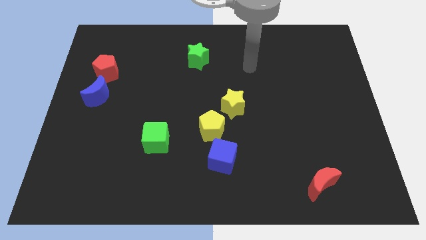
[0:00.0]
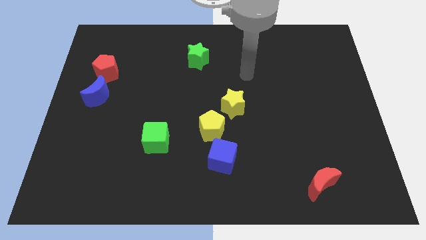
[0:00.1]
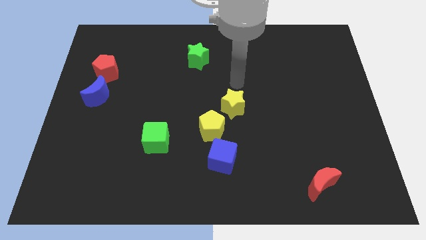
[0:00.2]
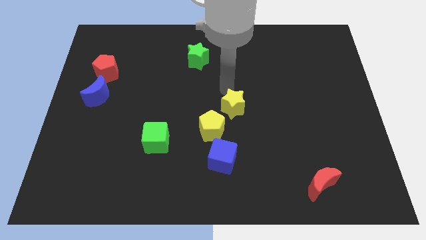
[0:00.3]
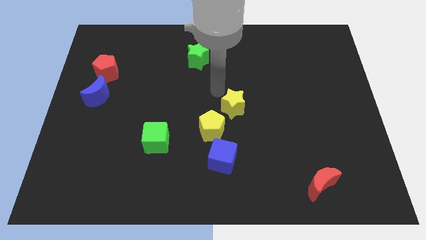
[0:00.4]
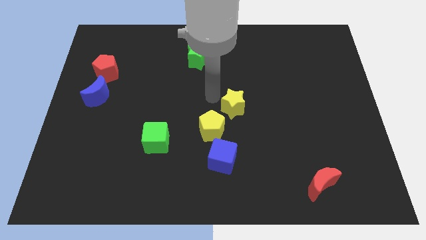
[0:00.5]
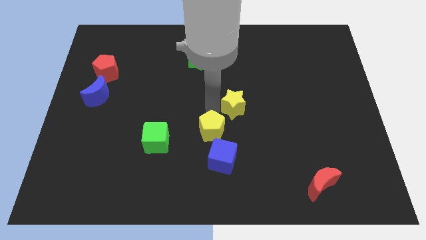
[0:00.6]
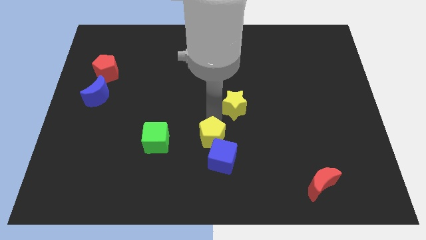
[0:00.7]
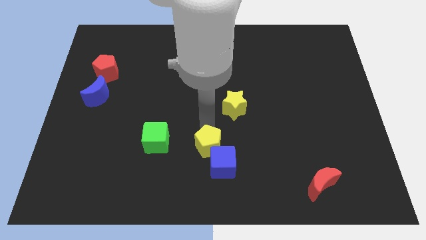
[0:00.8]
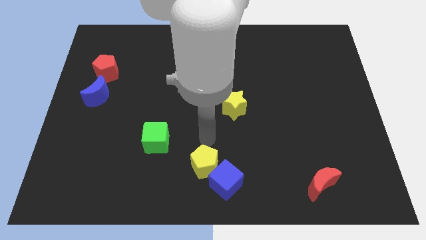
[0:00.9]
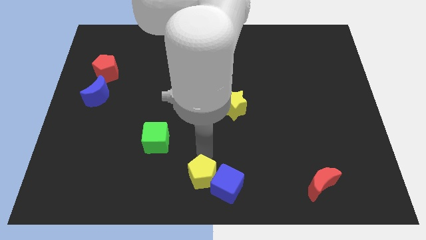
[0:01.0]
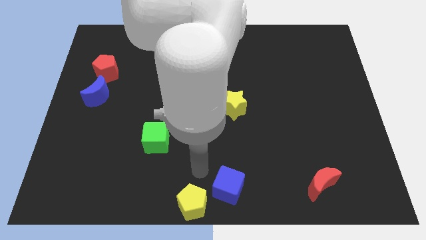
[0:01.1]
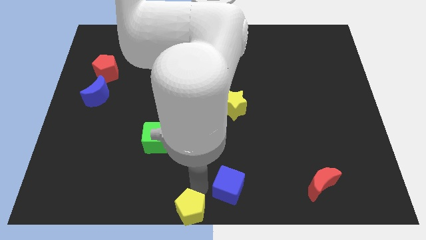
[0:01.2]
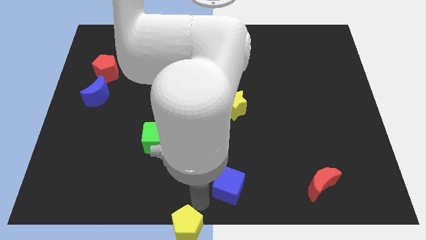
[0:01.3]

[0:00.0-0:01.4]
separate the blue cube from the yellow pentagon

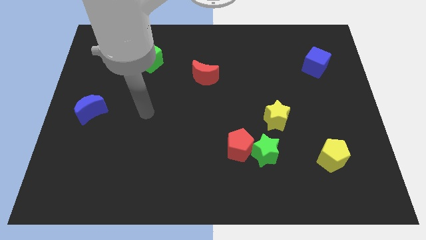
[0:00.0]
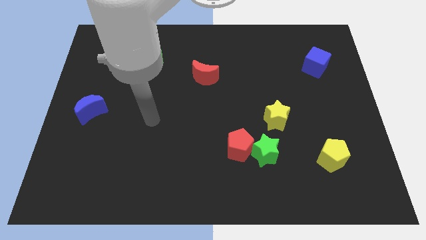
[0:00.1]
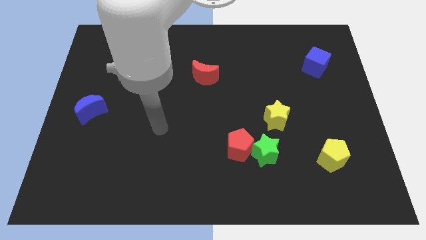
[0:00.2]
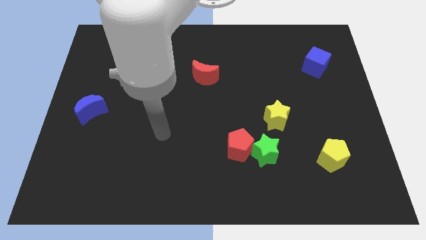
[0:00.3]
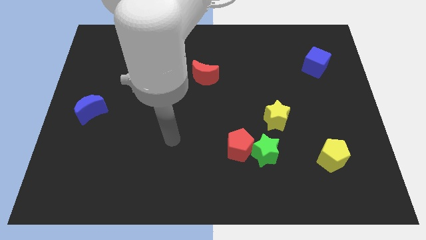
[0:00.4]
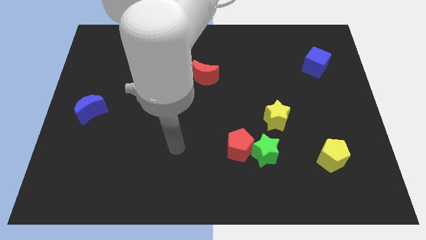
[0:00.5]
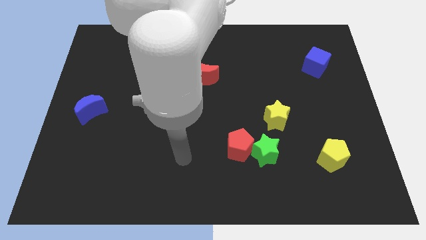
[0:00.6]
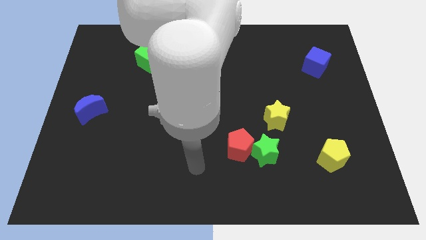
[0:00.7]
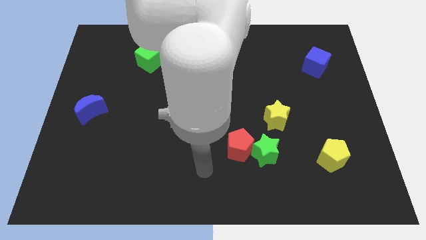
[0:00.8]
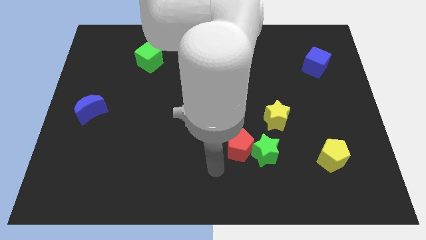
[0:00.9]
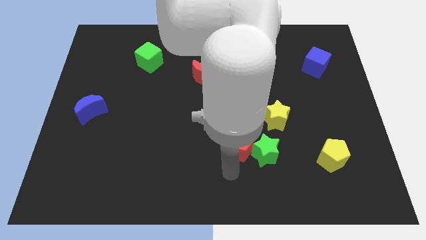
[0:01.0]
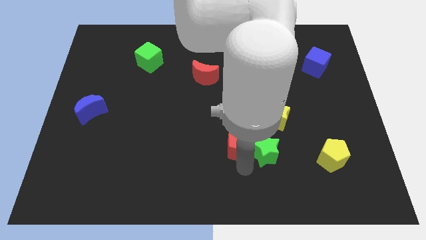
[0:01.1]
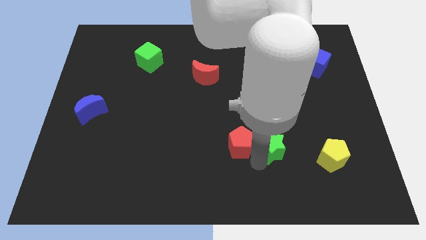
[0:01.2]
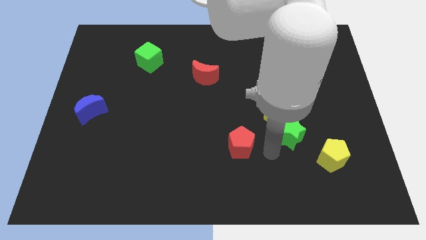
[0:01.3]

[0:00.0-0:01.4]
move the red pentagon away from the green star

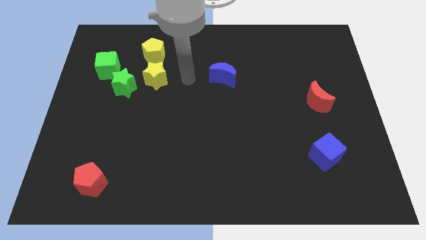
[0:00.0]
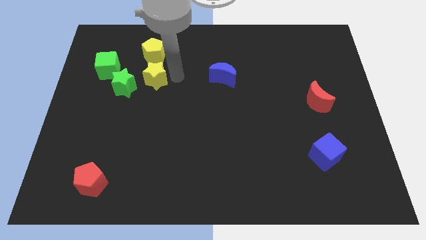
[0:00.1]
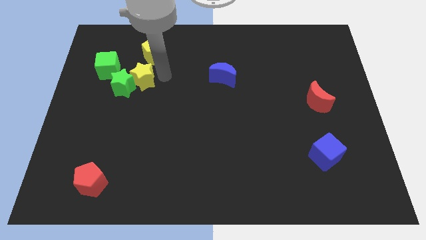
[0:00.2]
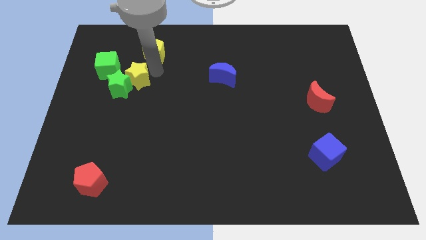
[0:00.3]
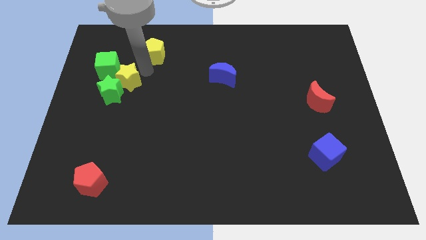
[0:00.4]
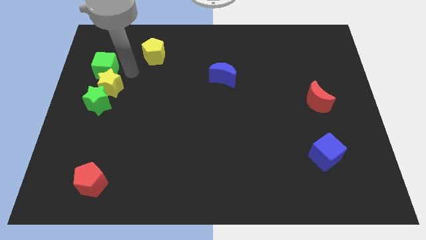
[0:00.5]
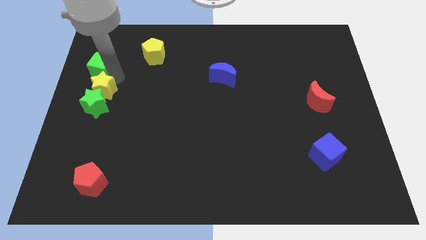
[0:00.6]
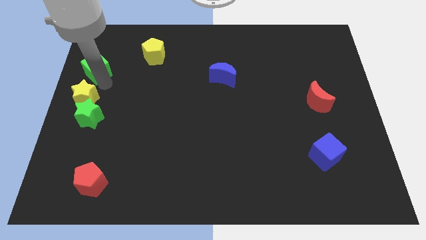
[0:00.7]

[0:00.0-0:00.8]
separate the green star from the yellow star and green cube

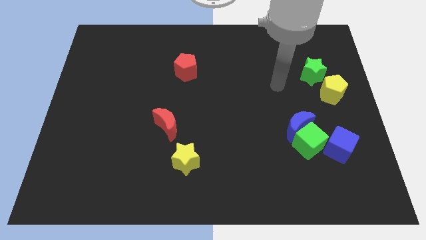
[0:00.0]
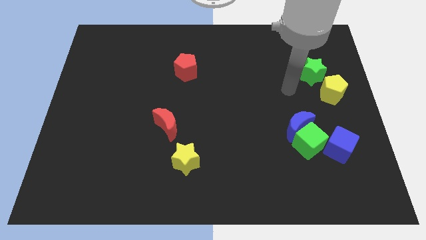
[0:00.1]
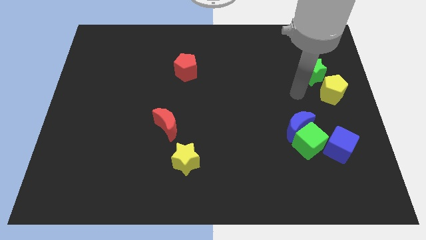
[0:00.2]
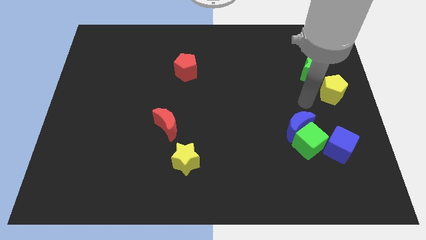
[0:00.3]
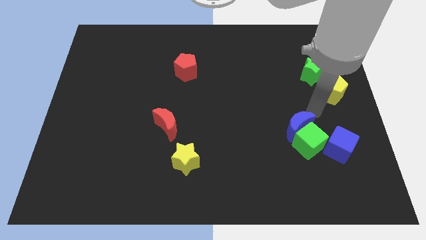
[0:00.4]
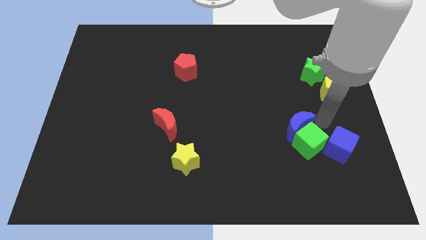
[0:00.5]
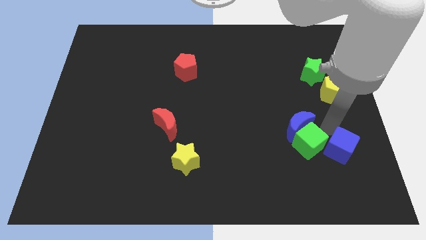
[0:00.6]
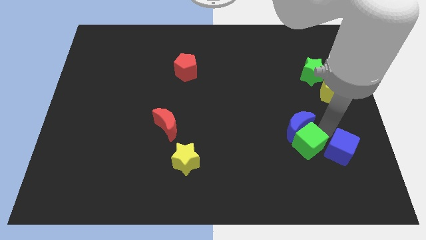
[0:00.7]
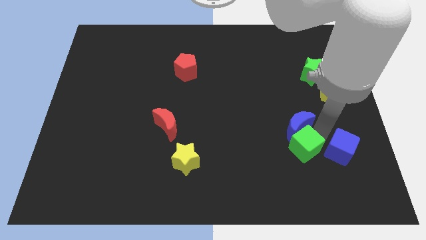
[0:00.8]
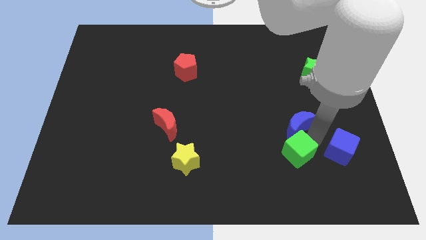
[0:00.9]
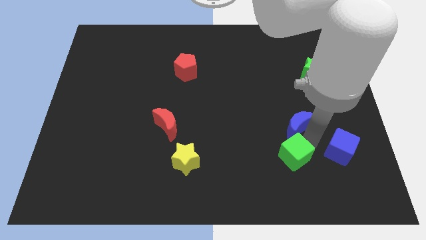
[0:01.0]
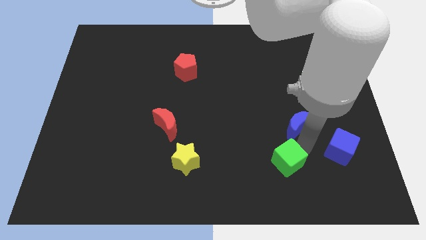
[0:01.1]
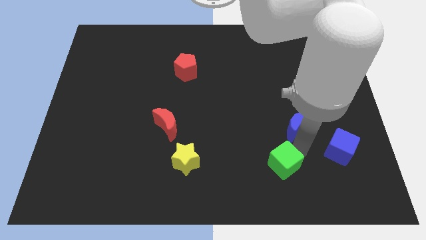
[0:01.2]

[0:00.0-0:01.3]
separate the green cube from the blue moon and blue cube

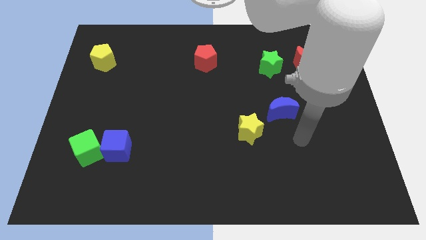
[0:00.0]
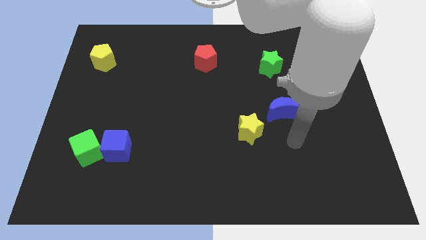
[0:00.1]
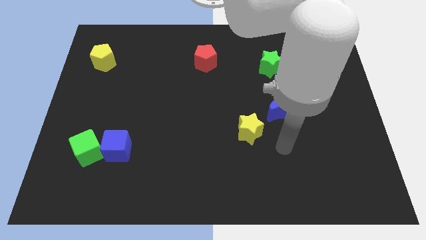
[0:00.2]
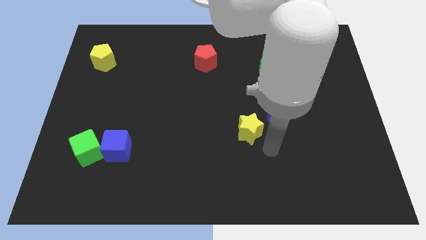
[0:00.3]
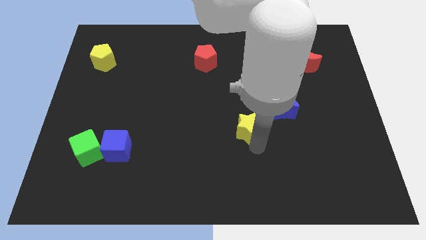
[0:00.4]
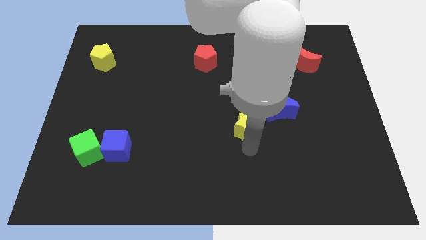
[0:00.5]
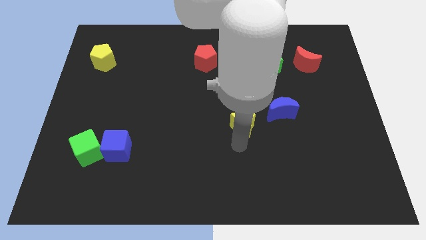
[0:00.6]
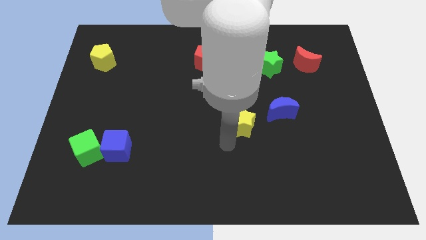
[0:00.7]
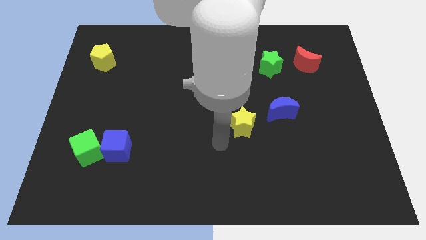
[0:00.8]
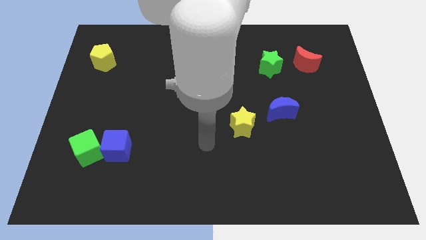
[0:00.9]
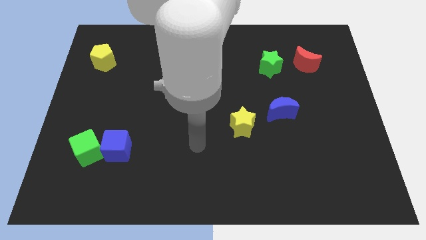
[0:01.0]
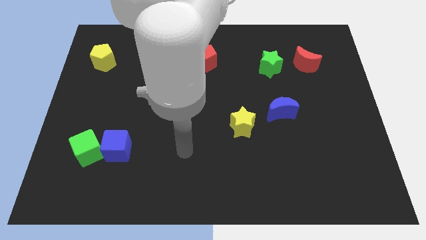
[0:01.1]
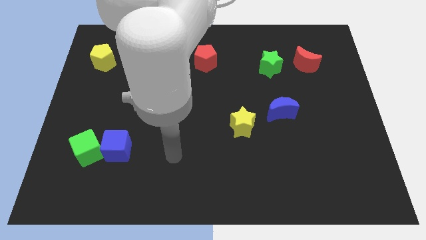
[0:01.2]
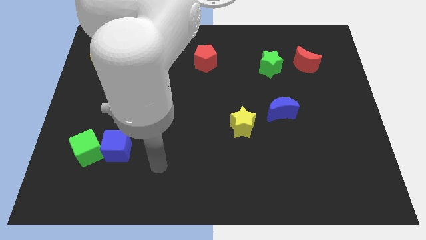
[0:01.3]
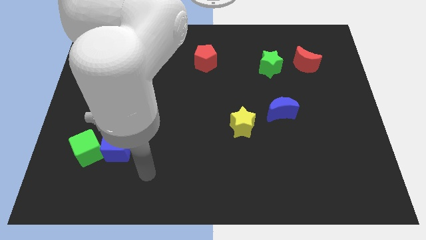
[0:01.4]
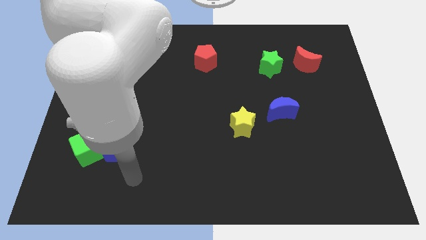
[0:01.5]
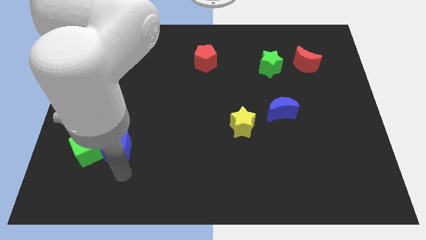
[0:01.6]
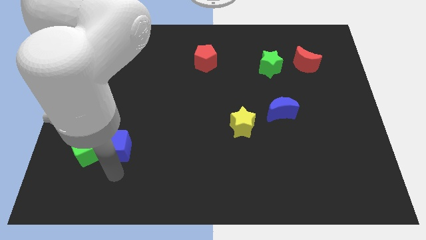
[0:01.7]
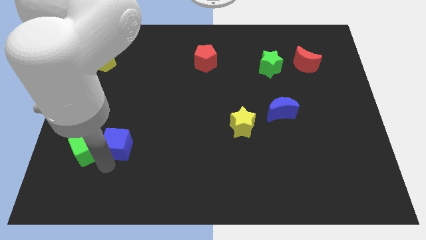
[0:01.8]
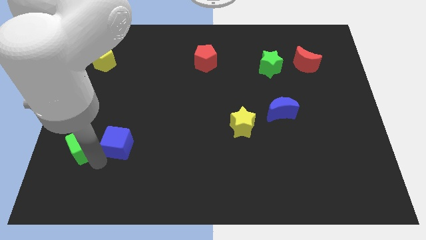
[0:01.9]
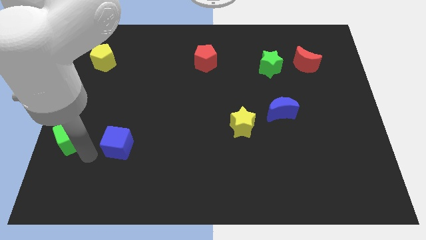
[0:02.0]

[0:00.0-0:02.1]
move the blue cube away from the green cube

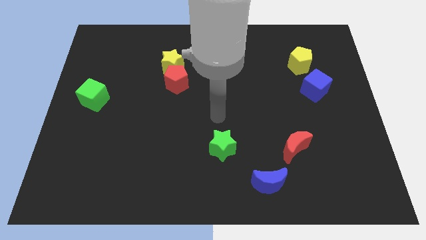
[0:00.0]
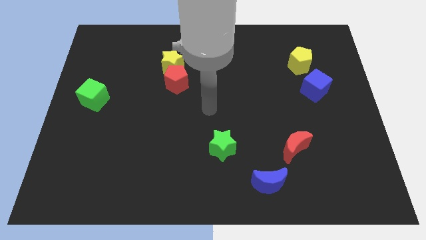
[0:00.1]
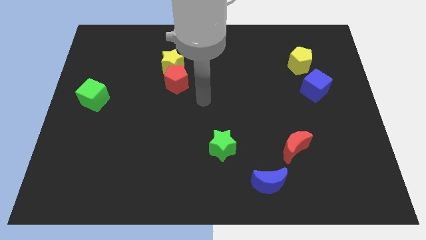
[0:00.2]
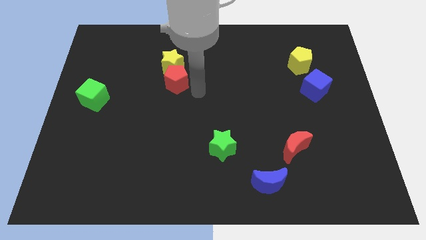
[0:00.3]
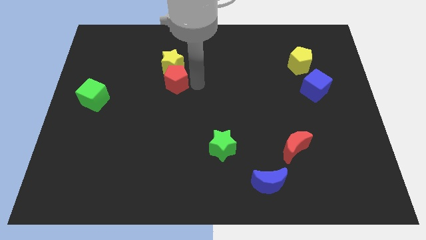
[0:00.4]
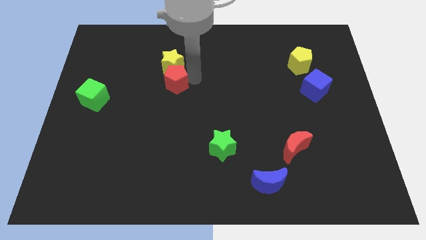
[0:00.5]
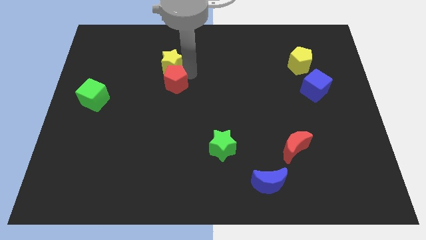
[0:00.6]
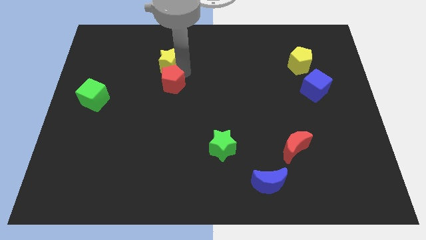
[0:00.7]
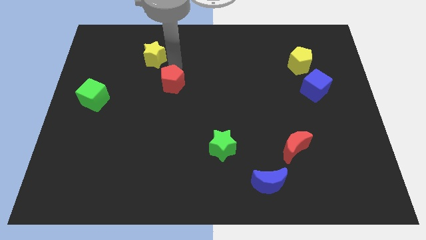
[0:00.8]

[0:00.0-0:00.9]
pull the red pentagon apart from the yellow star

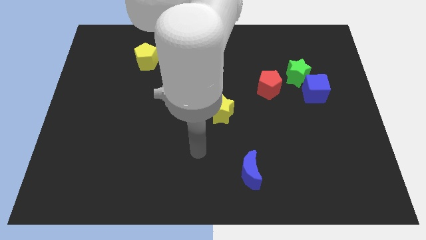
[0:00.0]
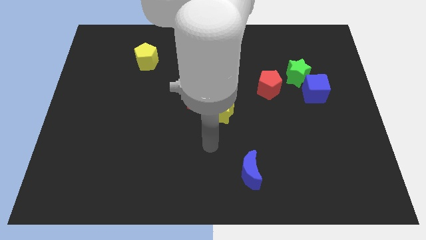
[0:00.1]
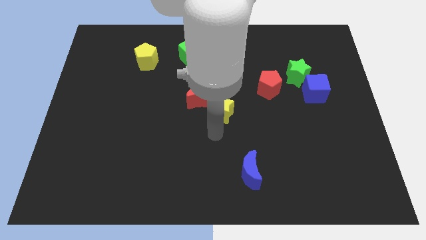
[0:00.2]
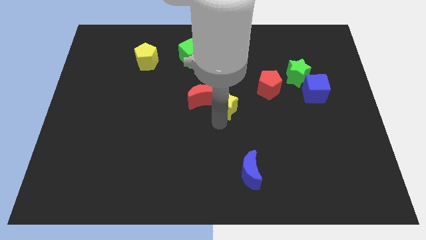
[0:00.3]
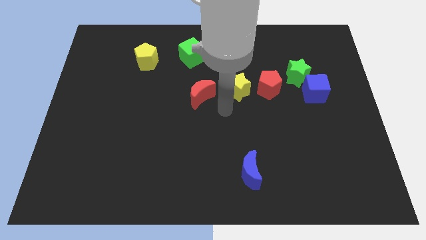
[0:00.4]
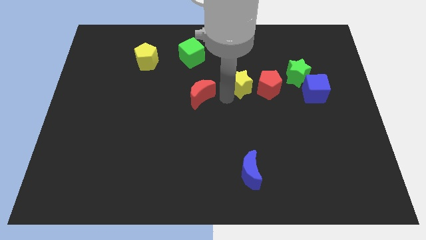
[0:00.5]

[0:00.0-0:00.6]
pull the red moon apart from the yellow star

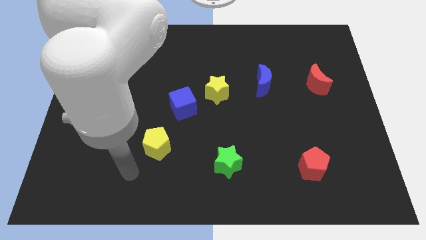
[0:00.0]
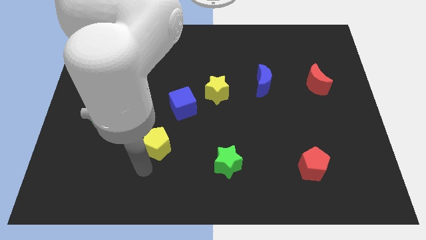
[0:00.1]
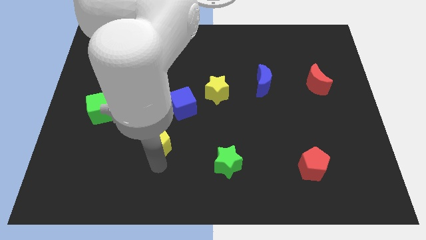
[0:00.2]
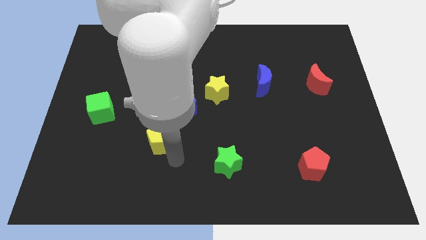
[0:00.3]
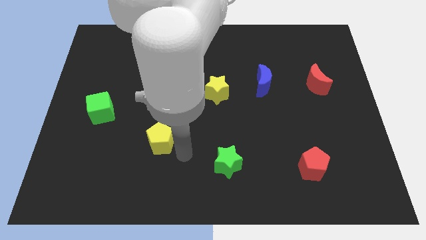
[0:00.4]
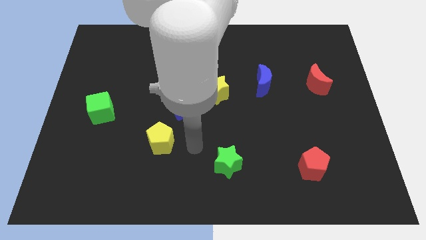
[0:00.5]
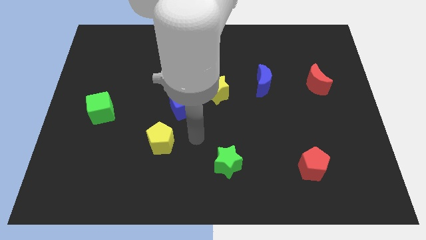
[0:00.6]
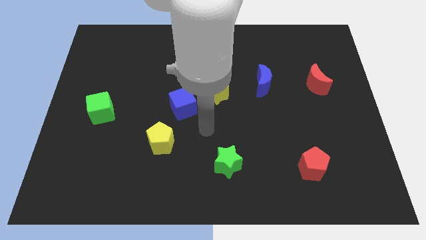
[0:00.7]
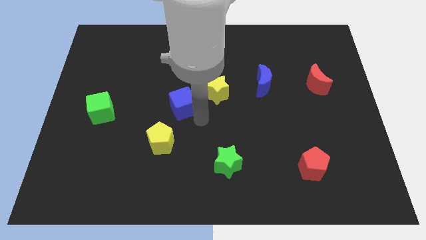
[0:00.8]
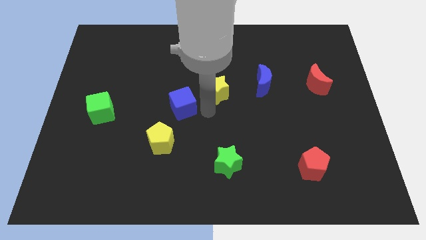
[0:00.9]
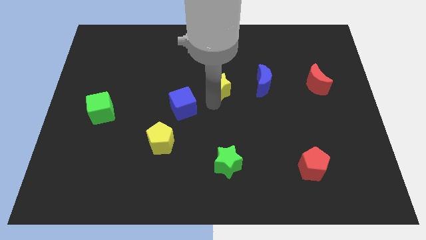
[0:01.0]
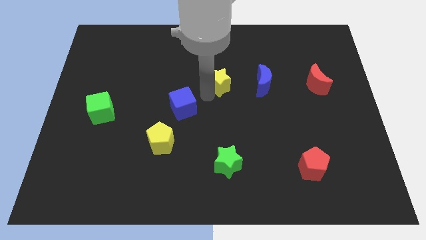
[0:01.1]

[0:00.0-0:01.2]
separate the blue cube from the yellow star
